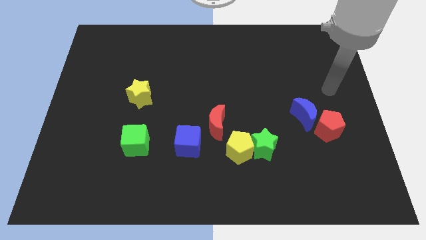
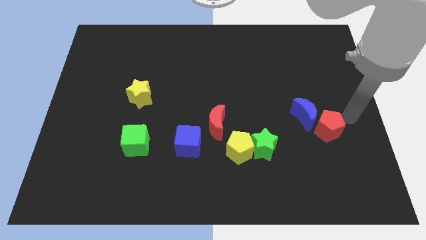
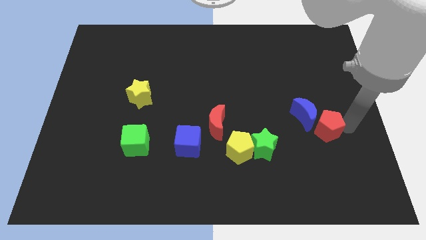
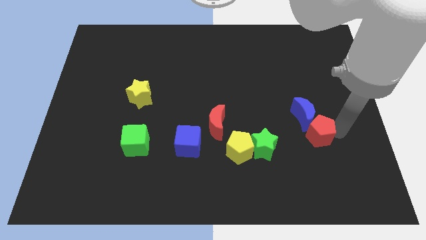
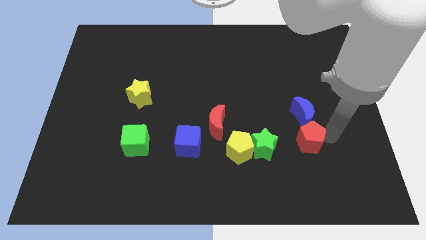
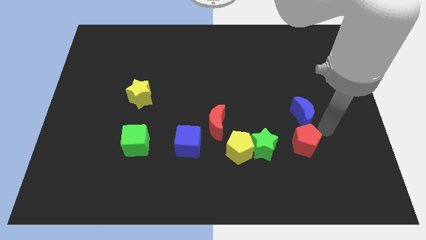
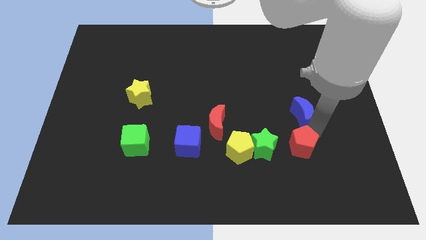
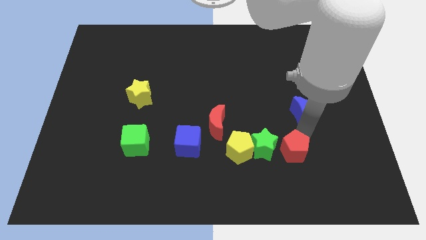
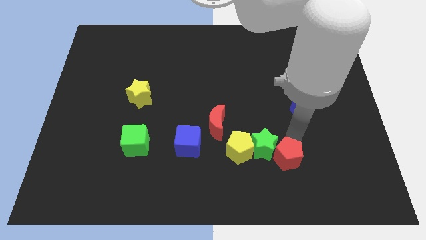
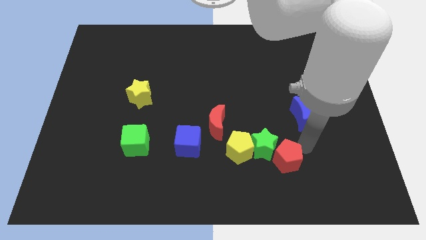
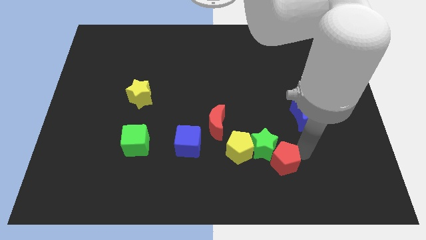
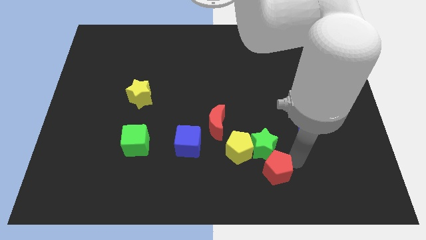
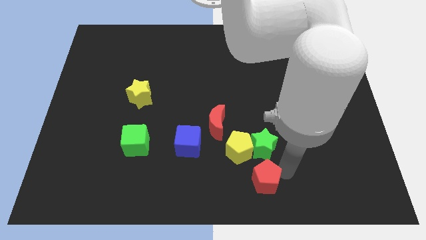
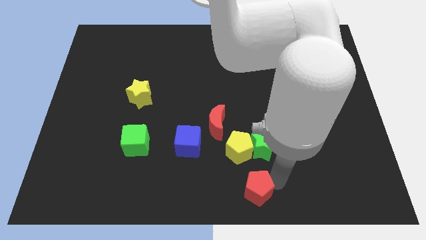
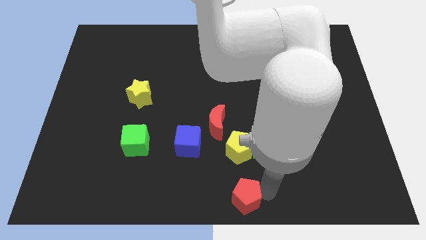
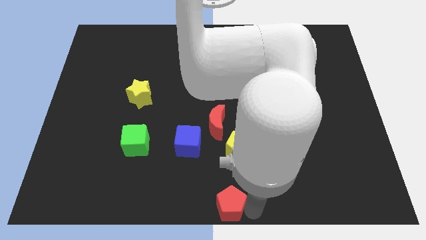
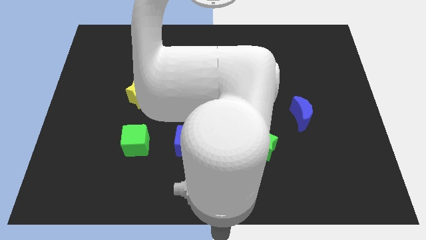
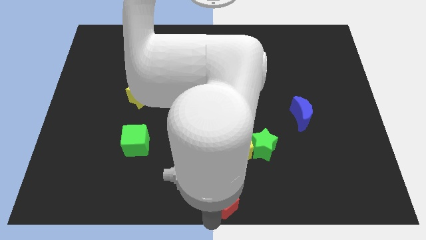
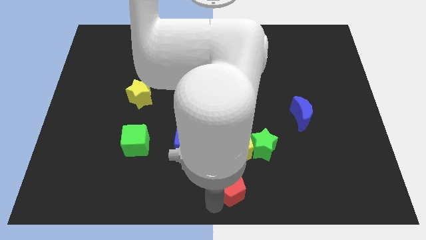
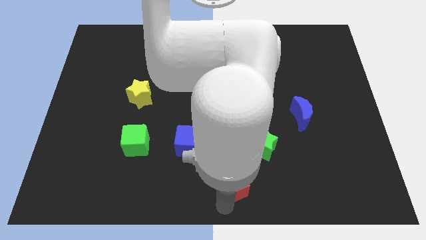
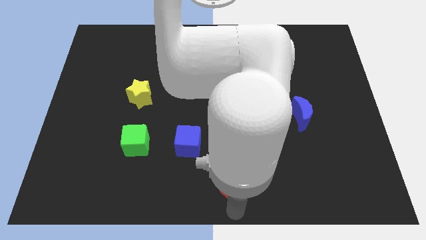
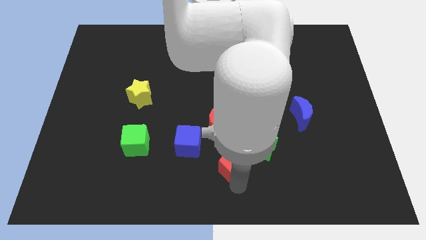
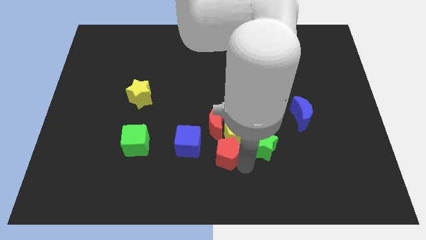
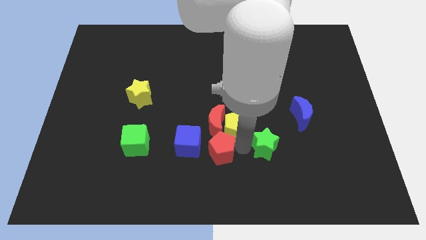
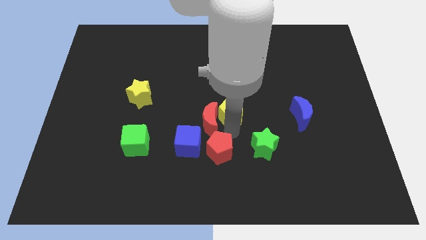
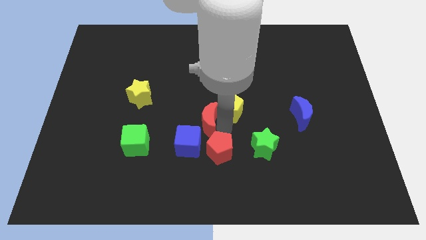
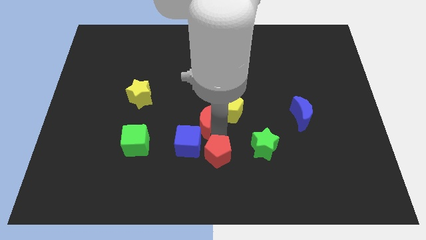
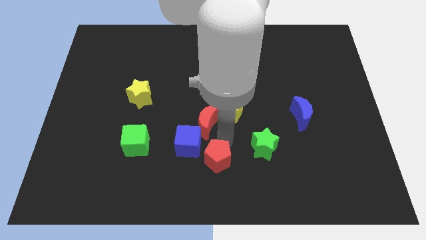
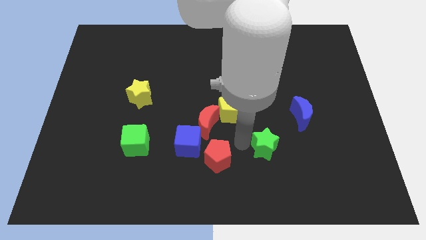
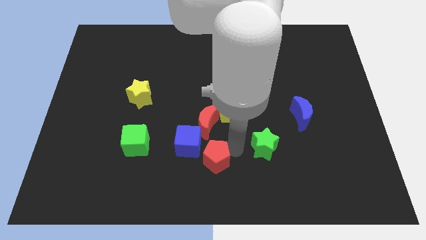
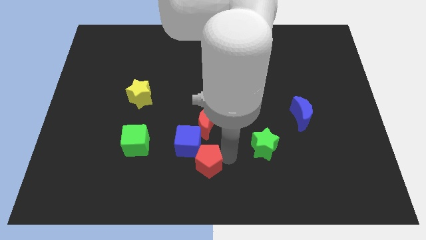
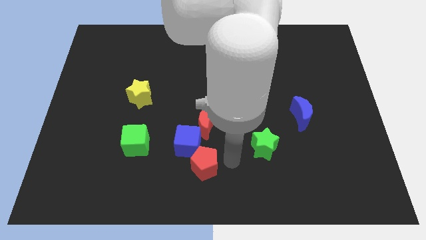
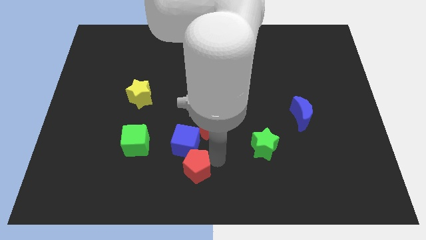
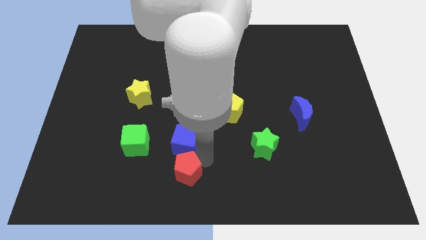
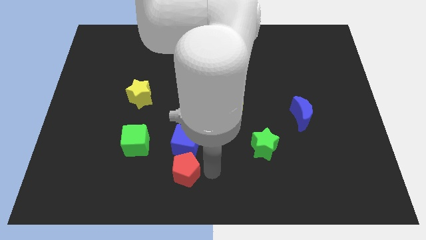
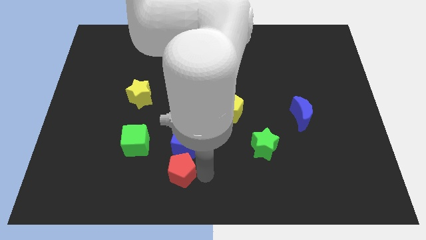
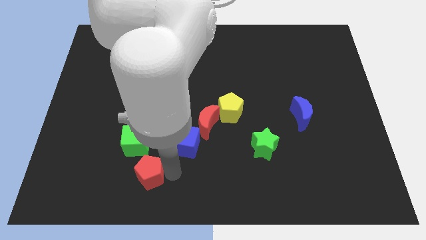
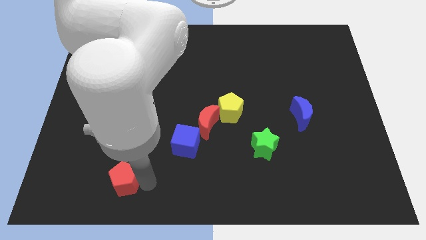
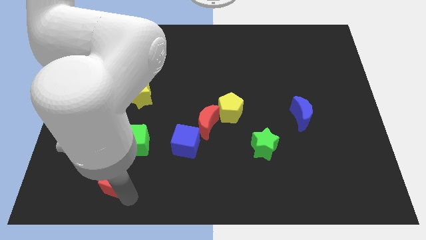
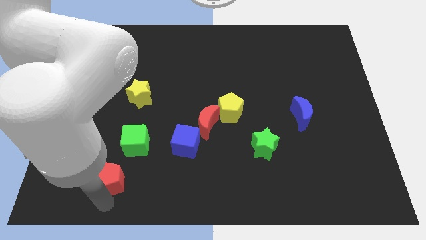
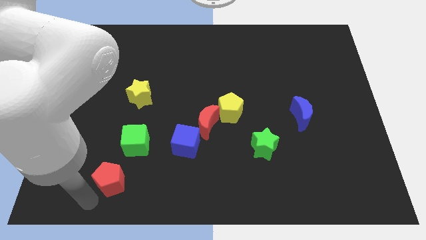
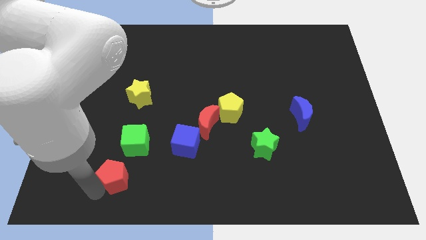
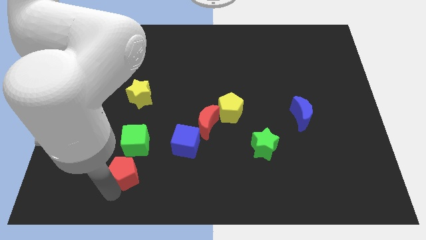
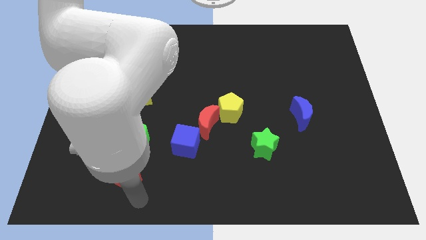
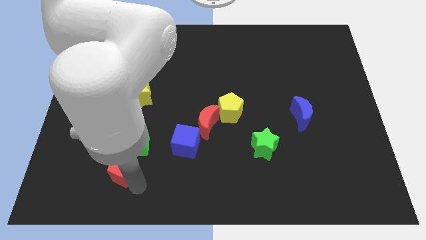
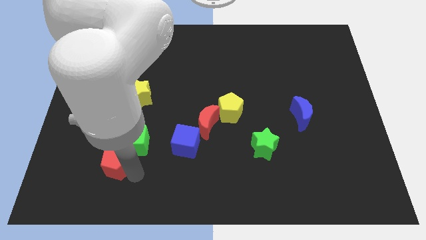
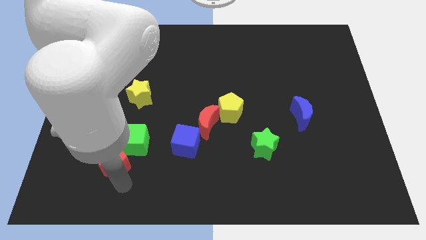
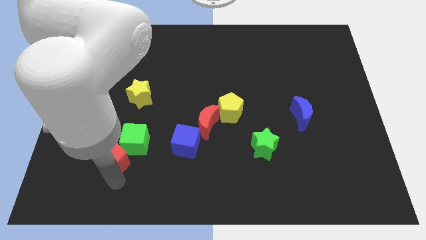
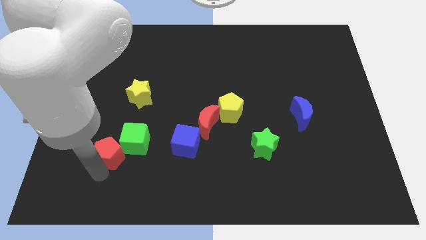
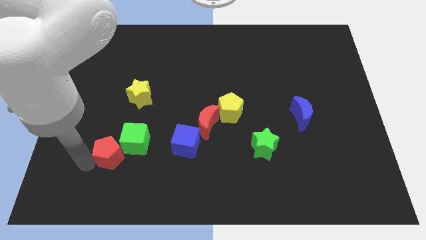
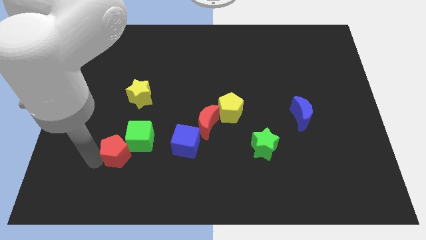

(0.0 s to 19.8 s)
move the red pentagon just left of the blue cube

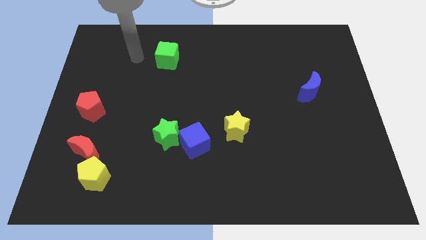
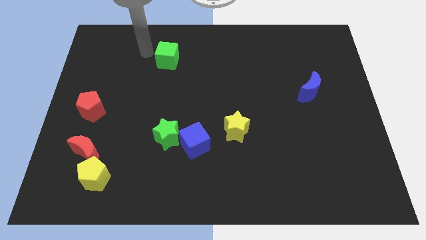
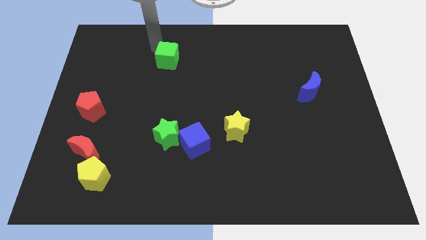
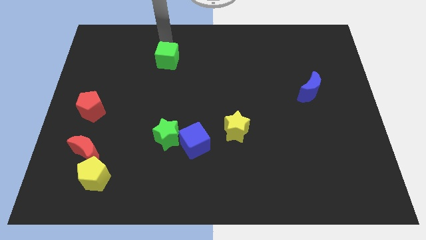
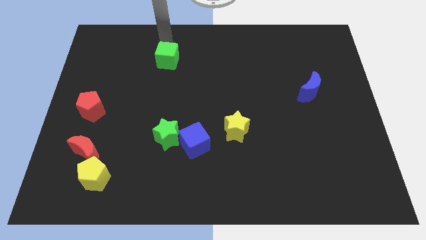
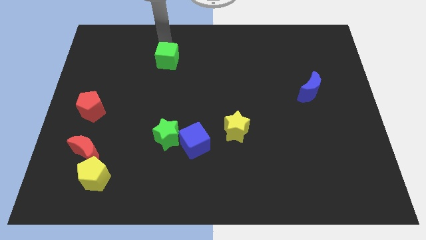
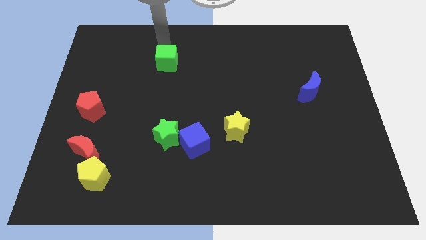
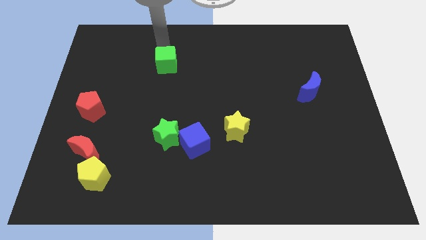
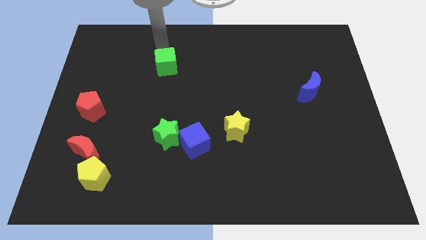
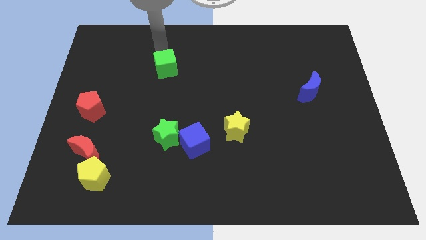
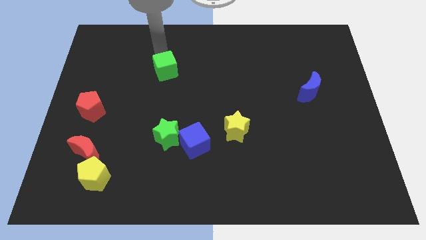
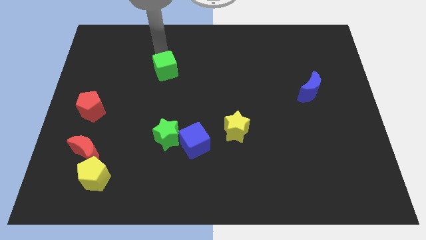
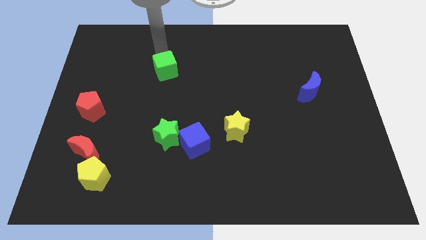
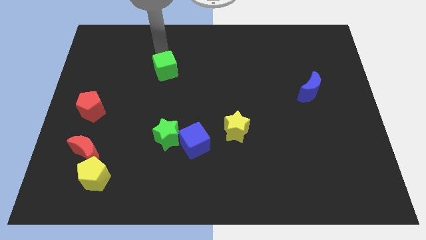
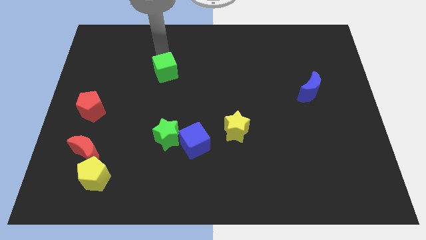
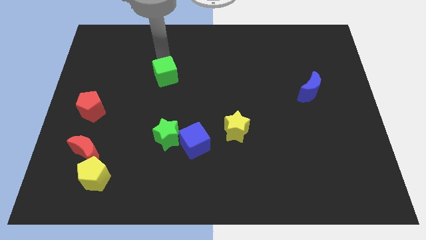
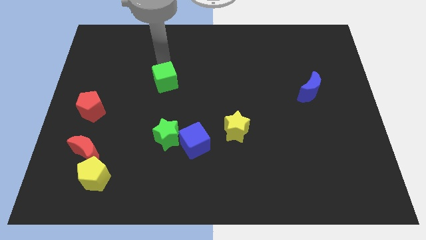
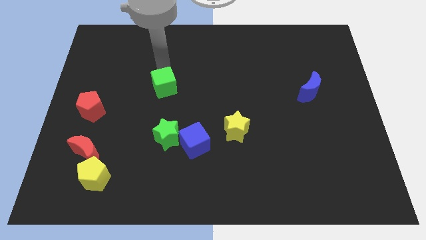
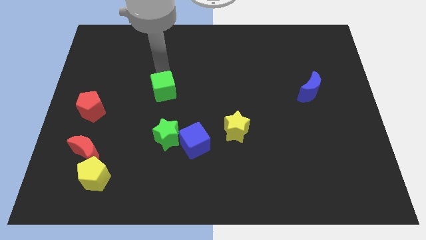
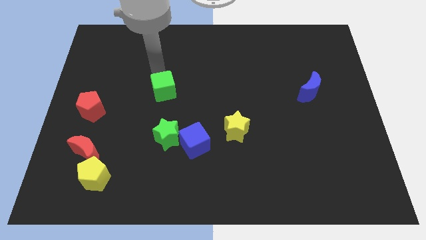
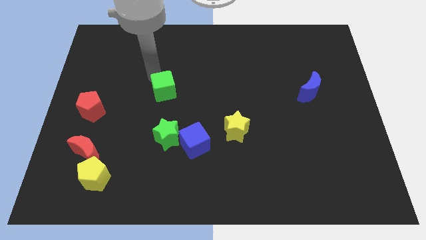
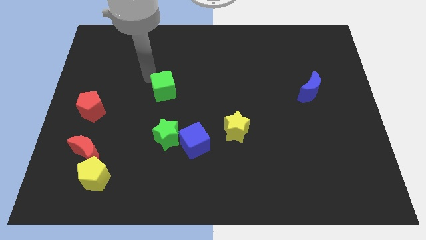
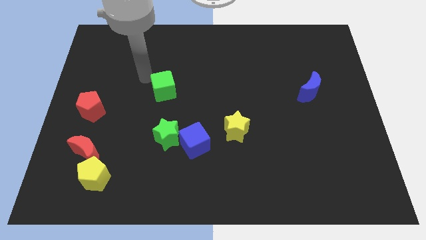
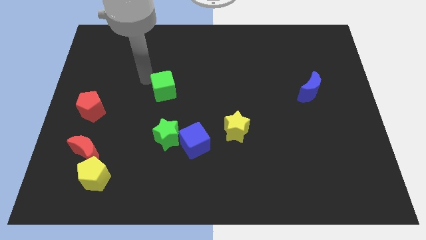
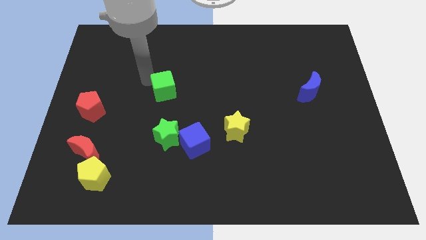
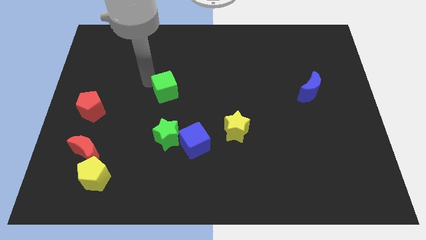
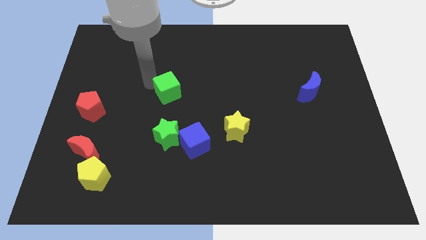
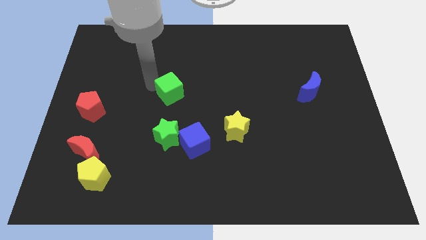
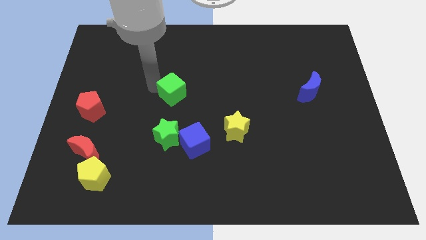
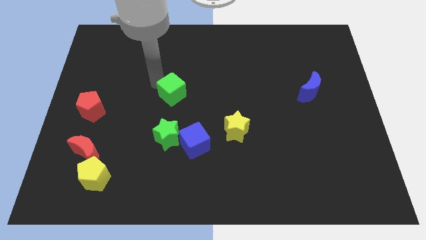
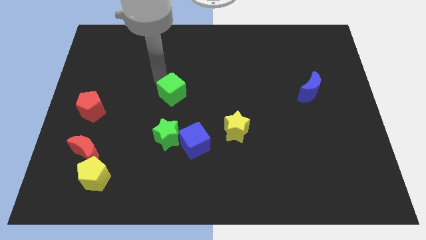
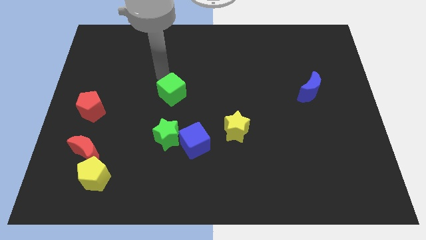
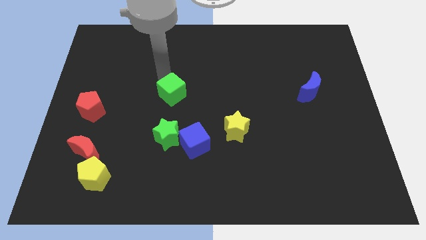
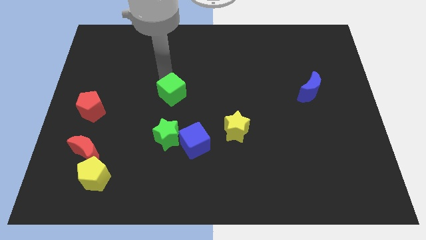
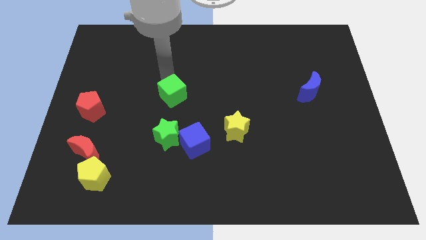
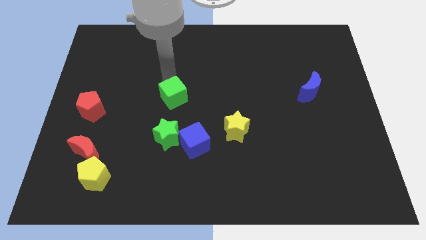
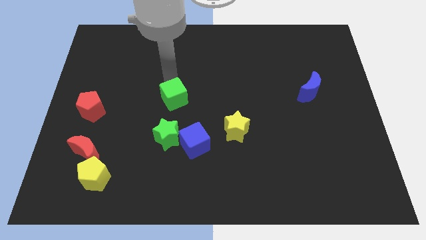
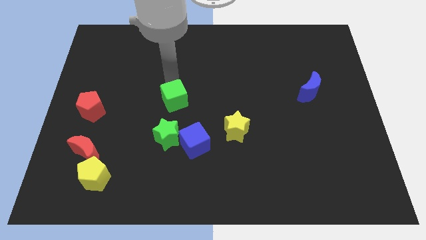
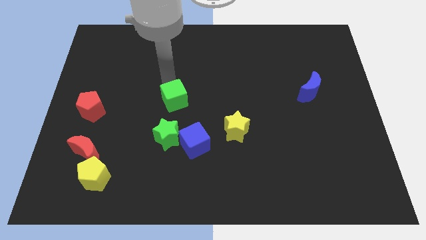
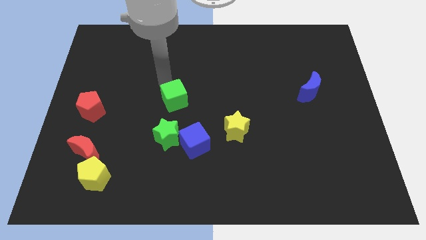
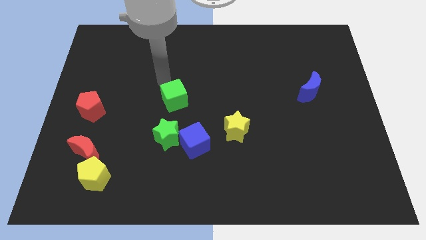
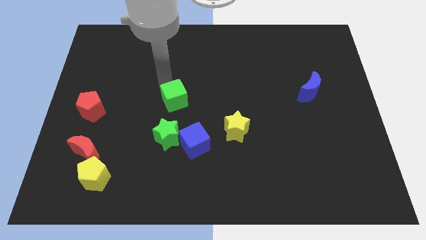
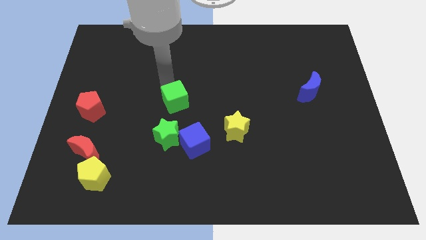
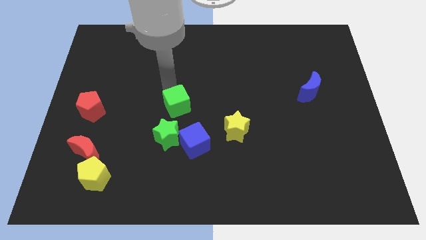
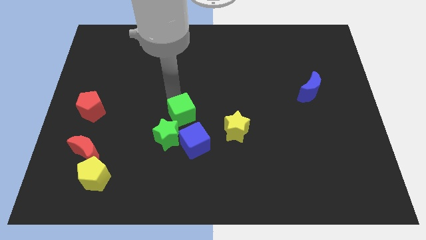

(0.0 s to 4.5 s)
slide the green cube just left of the yellow star
